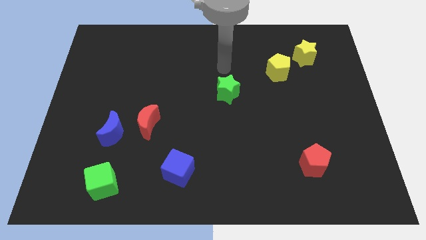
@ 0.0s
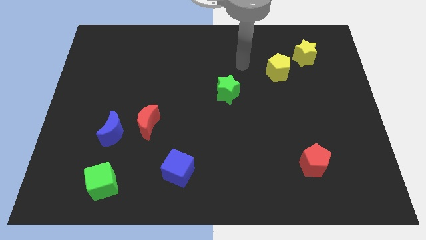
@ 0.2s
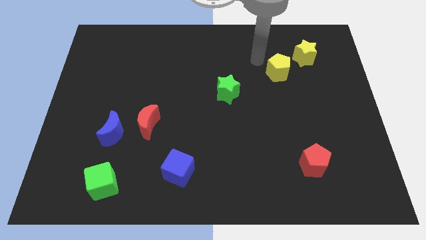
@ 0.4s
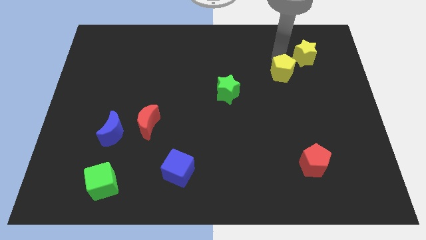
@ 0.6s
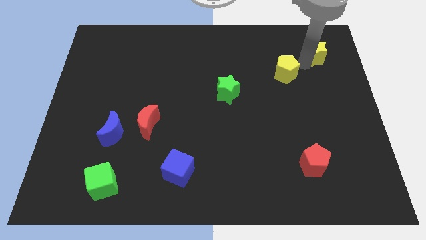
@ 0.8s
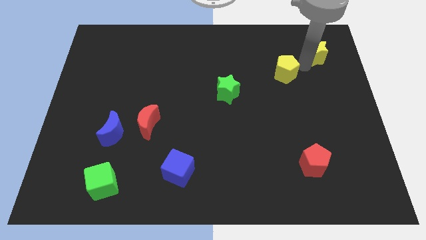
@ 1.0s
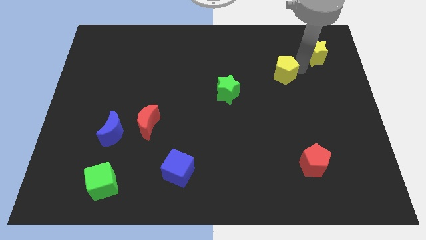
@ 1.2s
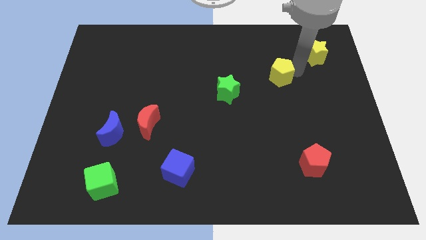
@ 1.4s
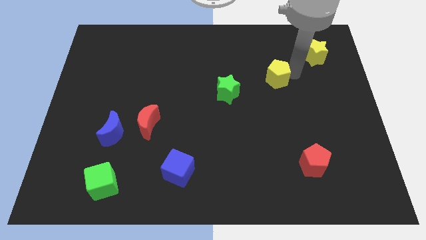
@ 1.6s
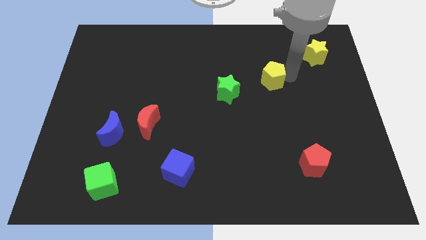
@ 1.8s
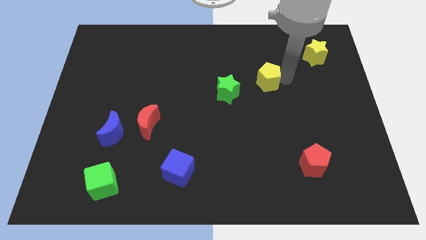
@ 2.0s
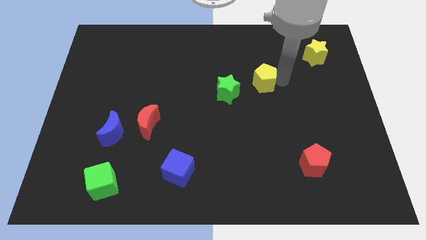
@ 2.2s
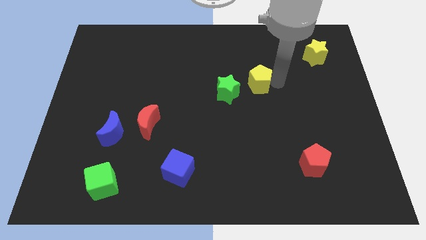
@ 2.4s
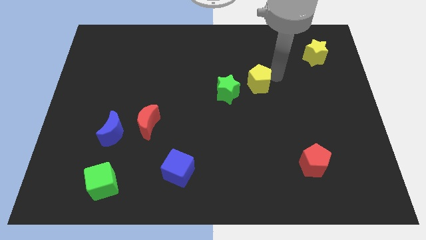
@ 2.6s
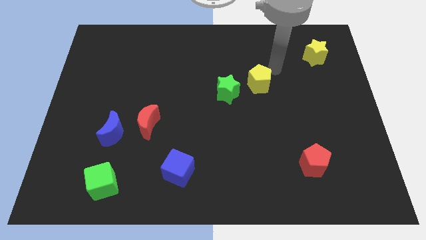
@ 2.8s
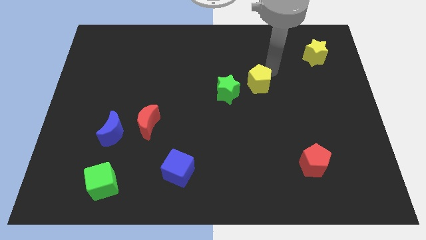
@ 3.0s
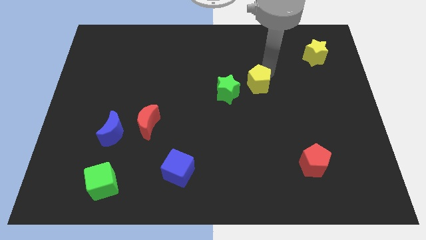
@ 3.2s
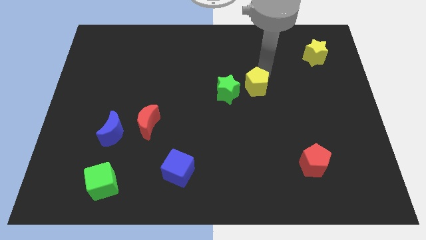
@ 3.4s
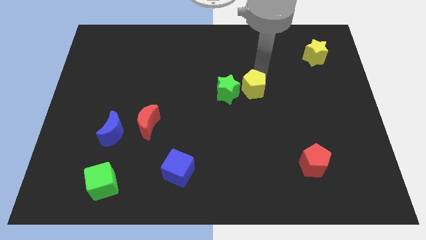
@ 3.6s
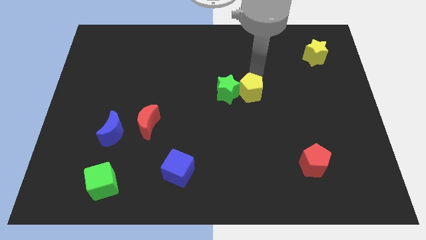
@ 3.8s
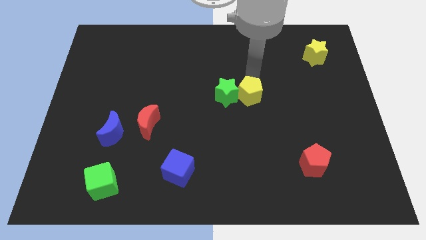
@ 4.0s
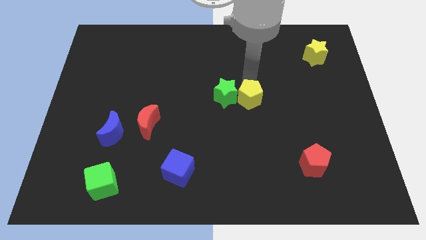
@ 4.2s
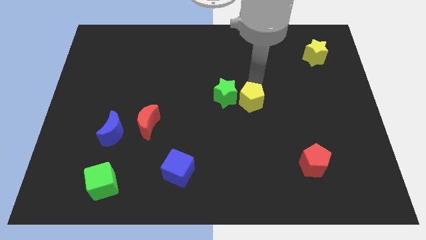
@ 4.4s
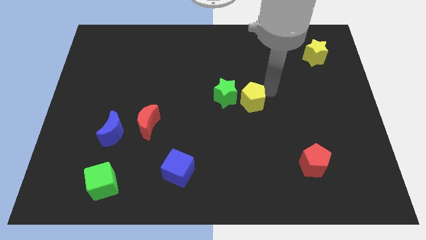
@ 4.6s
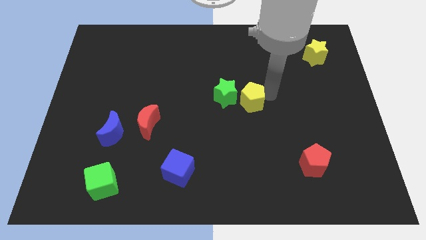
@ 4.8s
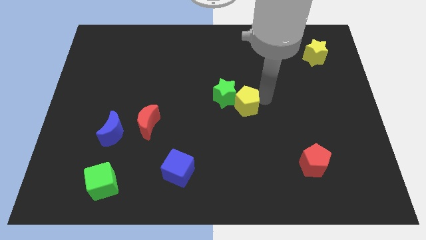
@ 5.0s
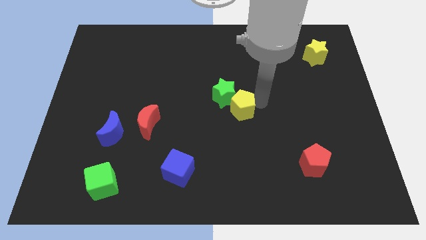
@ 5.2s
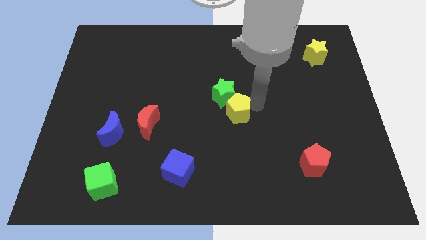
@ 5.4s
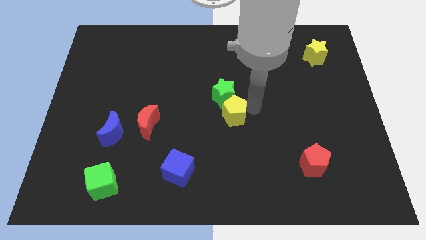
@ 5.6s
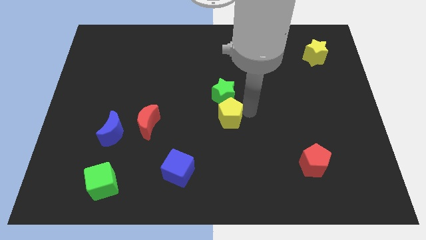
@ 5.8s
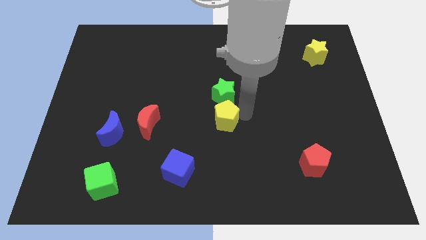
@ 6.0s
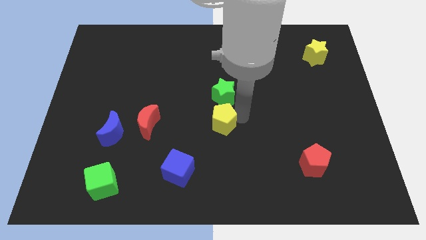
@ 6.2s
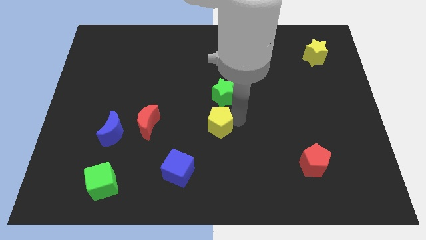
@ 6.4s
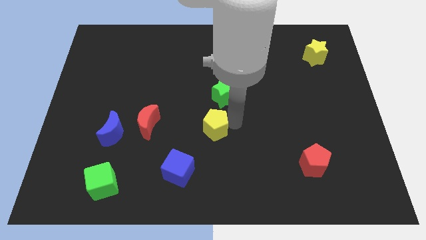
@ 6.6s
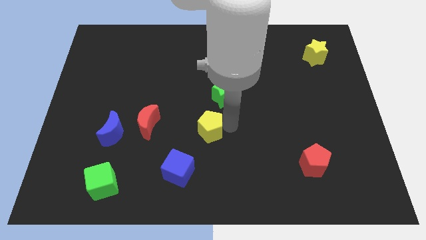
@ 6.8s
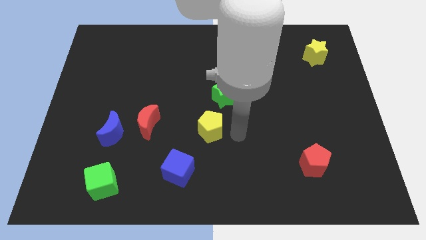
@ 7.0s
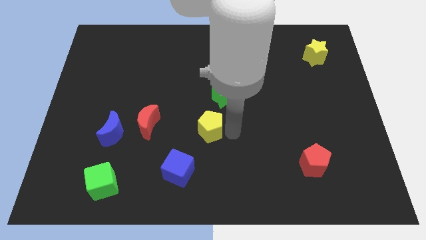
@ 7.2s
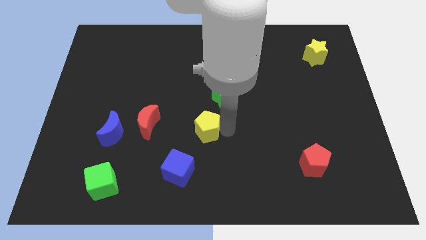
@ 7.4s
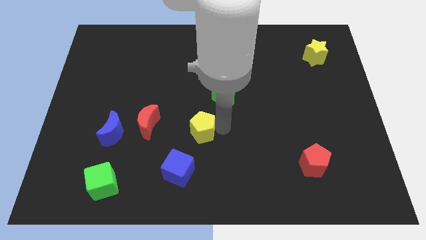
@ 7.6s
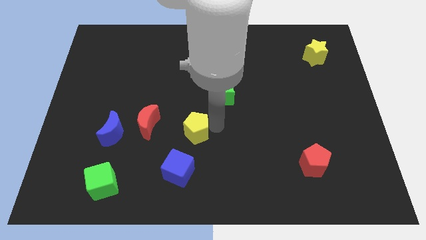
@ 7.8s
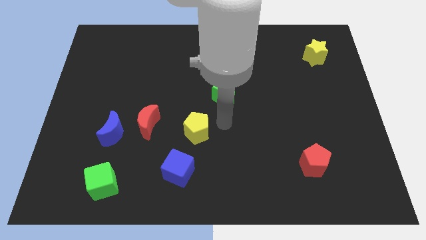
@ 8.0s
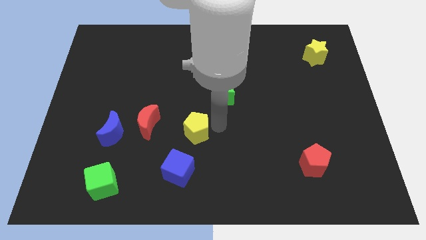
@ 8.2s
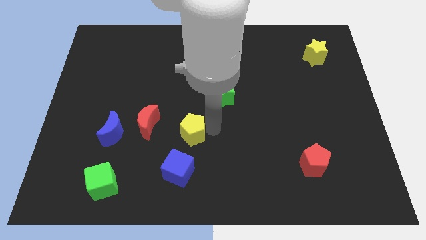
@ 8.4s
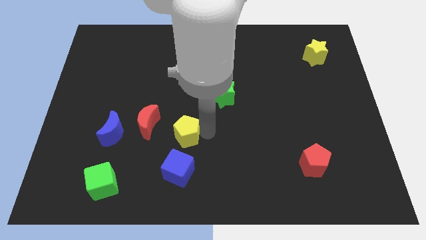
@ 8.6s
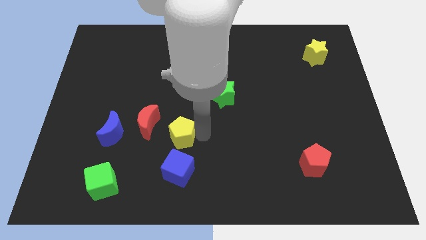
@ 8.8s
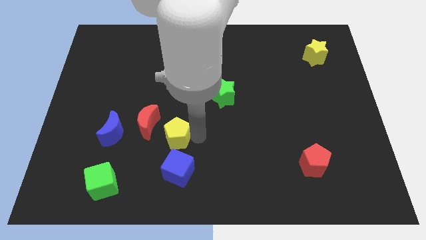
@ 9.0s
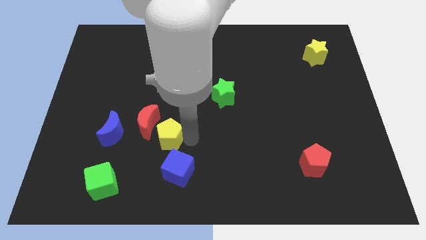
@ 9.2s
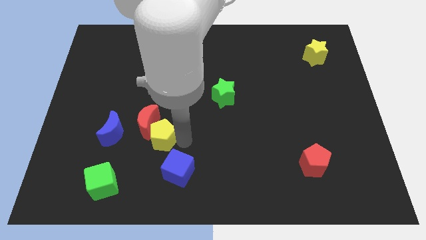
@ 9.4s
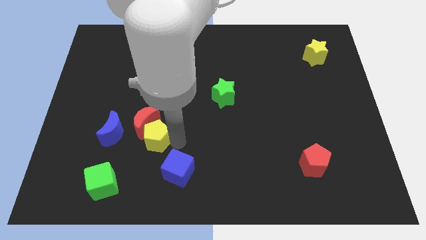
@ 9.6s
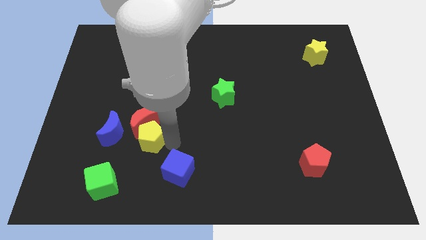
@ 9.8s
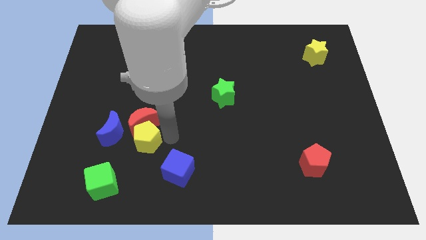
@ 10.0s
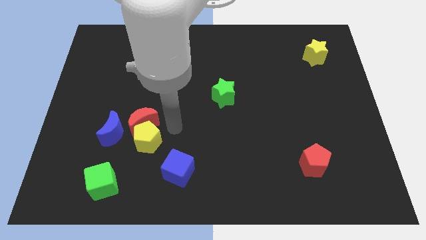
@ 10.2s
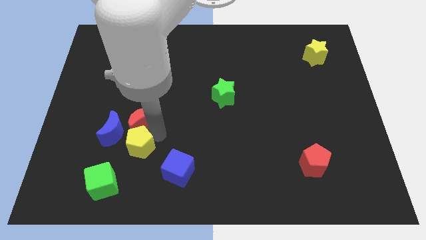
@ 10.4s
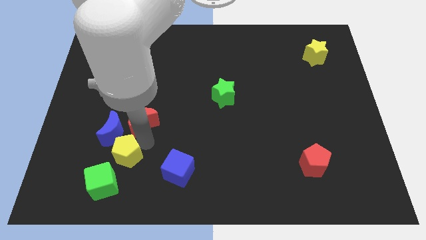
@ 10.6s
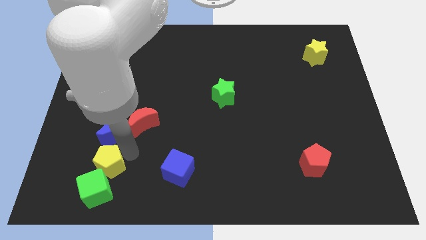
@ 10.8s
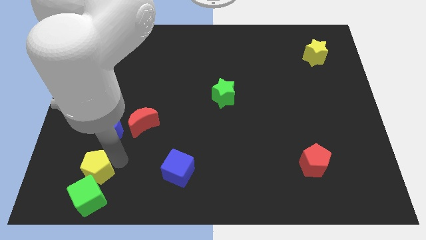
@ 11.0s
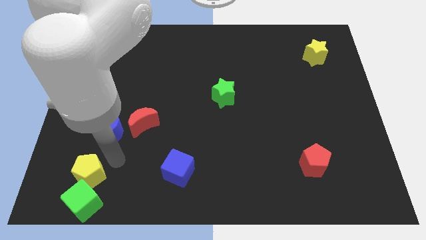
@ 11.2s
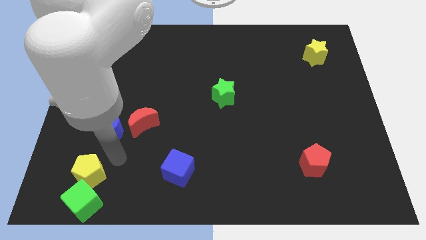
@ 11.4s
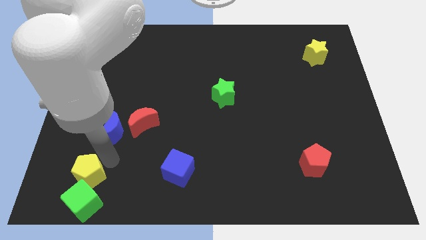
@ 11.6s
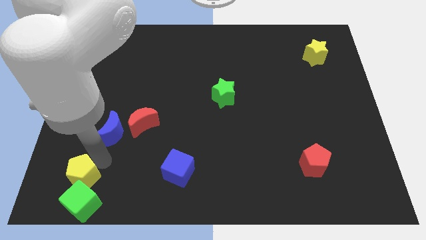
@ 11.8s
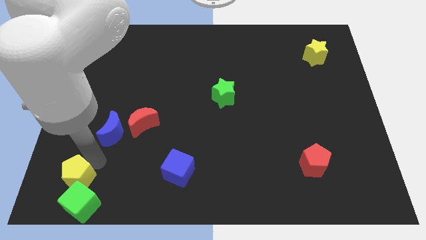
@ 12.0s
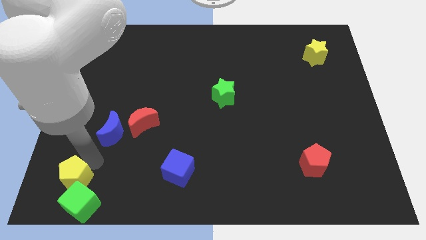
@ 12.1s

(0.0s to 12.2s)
put the yellow pentagon to the bottom left

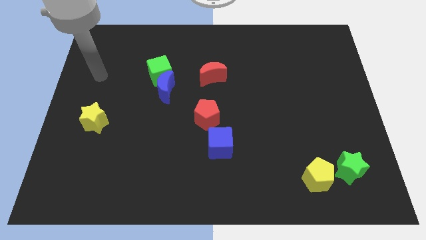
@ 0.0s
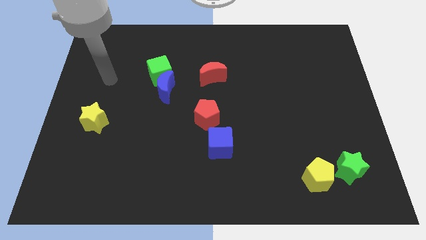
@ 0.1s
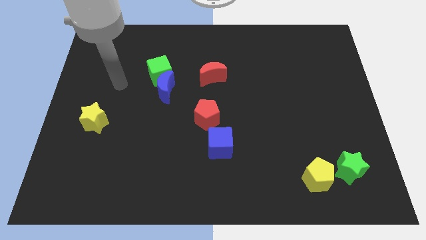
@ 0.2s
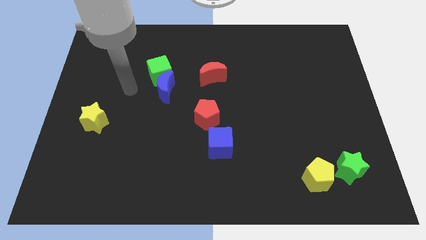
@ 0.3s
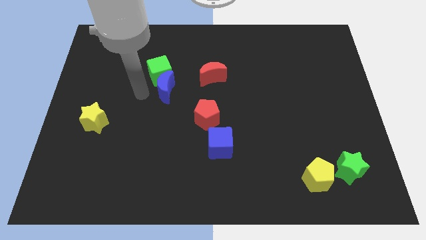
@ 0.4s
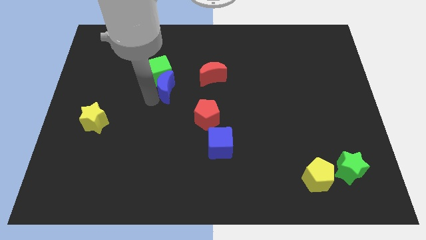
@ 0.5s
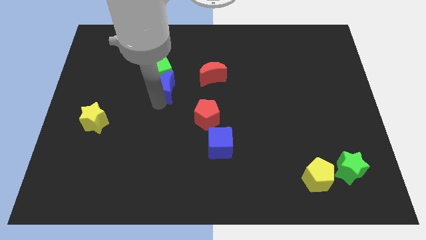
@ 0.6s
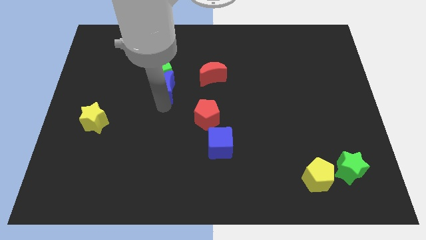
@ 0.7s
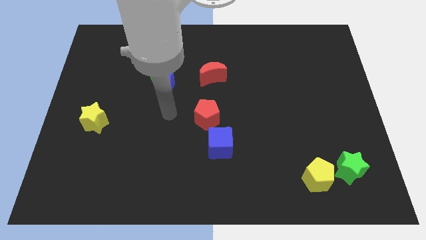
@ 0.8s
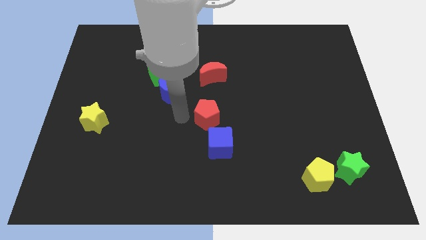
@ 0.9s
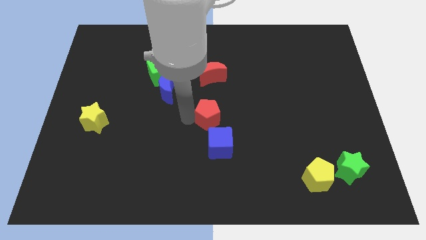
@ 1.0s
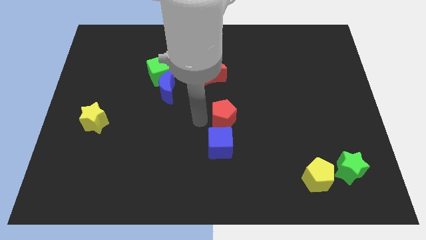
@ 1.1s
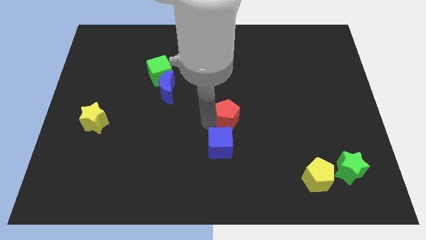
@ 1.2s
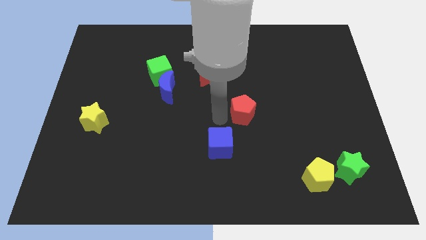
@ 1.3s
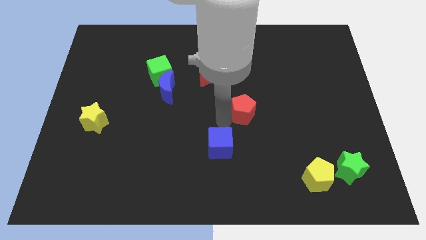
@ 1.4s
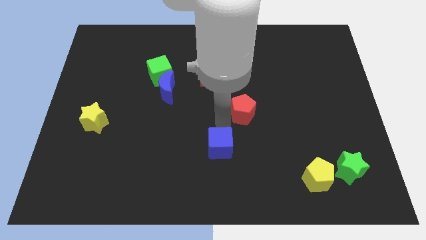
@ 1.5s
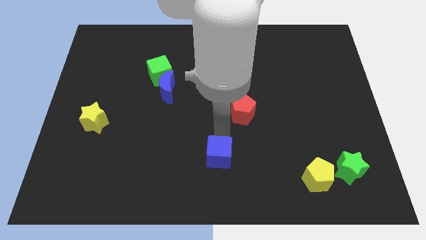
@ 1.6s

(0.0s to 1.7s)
slide the blue cube to the bottom
